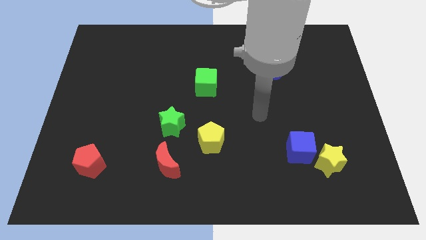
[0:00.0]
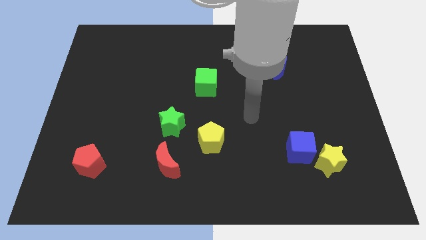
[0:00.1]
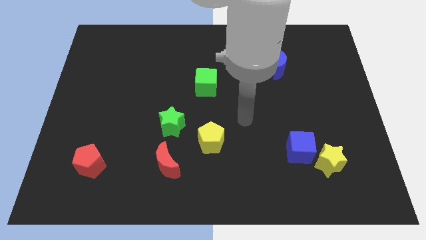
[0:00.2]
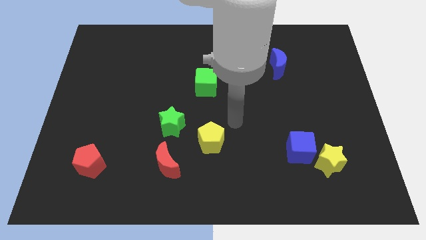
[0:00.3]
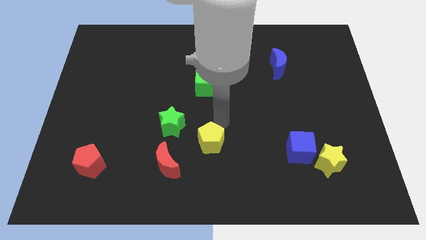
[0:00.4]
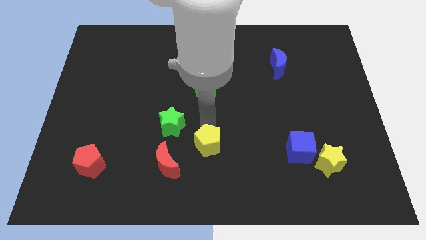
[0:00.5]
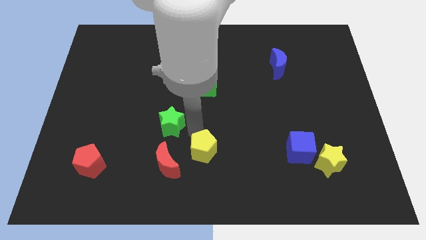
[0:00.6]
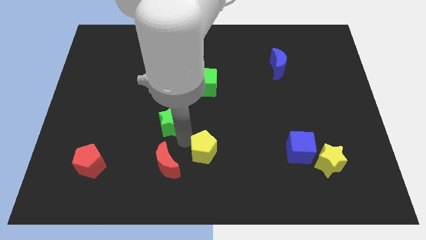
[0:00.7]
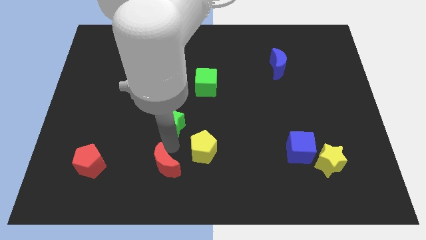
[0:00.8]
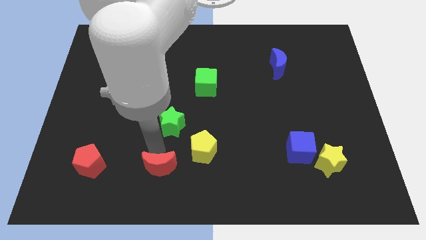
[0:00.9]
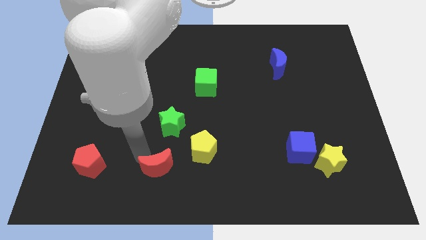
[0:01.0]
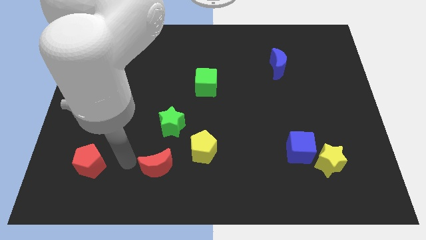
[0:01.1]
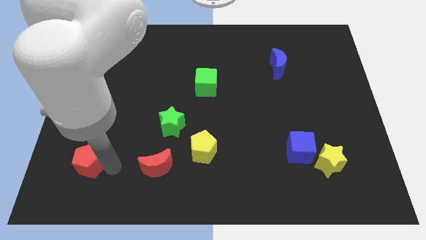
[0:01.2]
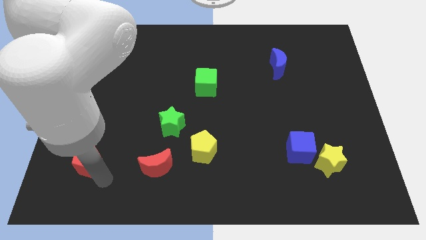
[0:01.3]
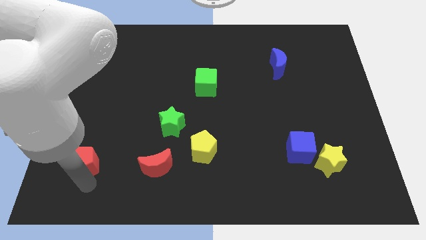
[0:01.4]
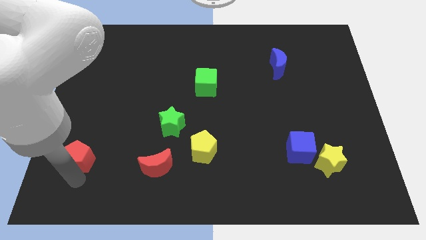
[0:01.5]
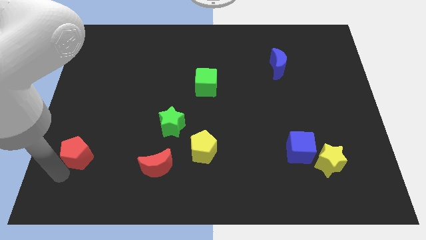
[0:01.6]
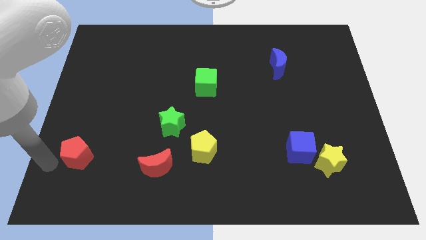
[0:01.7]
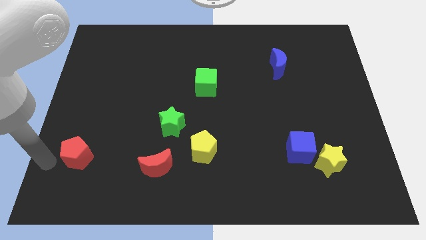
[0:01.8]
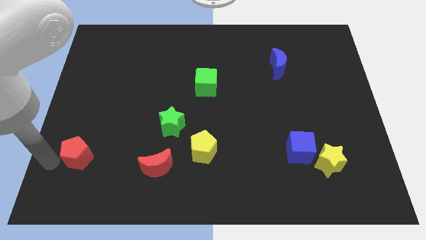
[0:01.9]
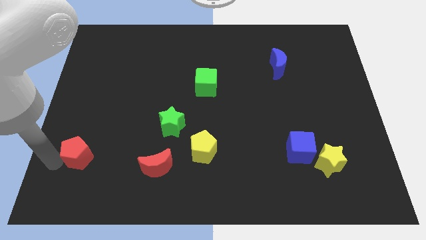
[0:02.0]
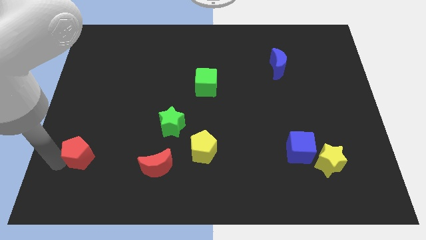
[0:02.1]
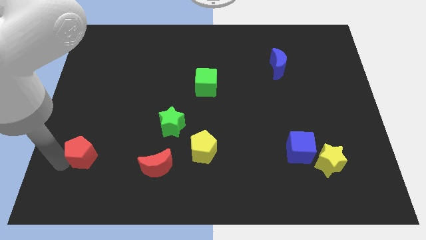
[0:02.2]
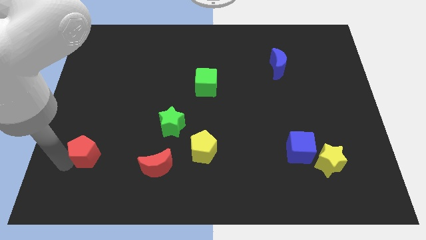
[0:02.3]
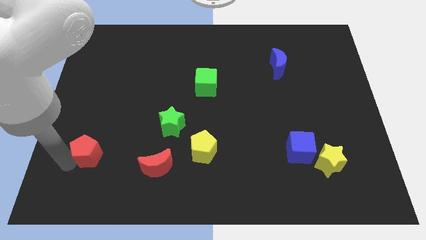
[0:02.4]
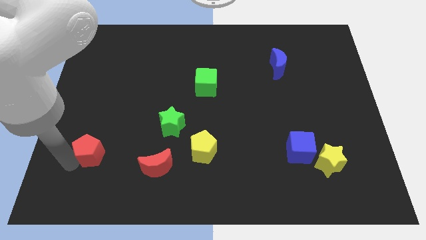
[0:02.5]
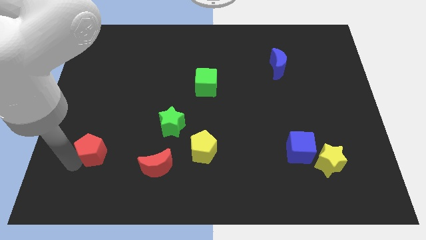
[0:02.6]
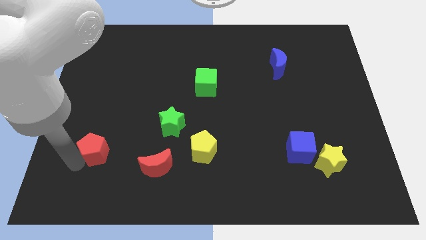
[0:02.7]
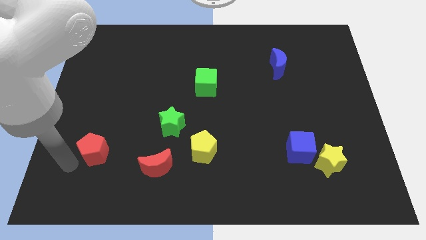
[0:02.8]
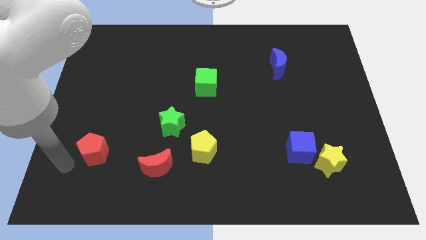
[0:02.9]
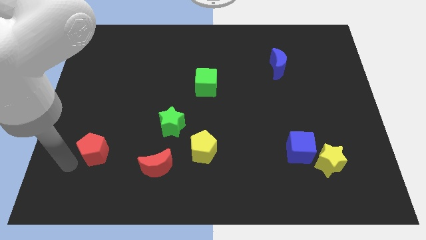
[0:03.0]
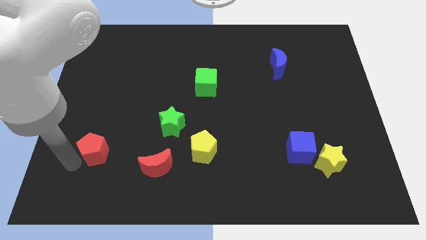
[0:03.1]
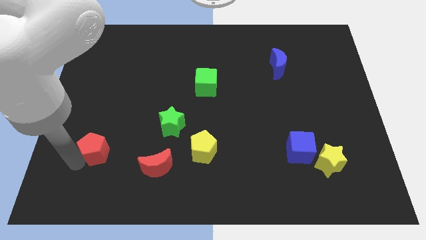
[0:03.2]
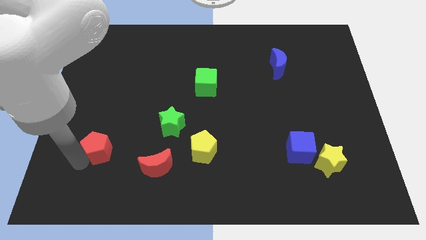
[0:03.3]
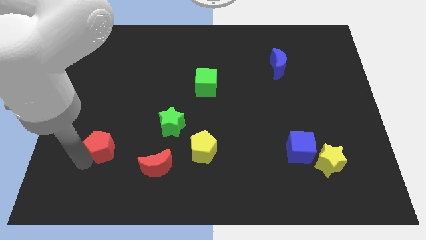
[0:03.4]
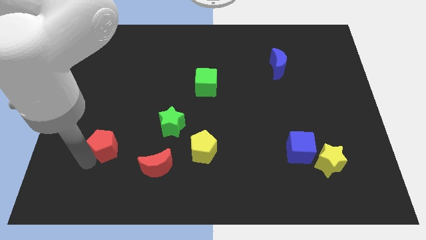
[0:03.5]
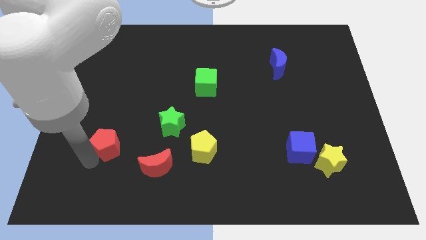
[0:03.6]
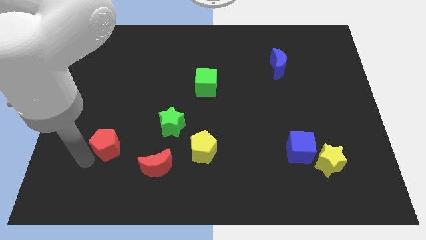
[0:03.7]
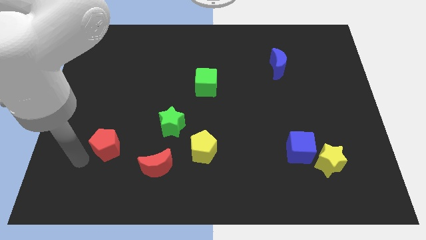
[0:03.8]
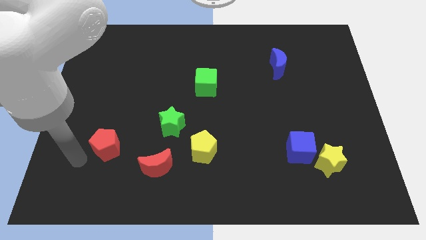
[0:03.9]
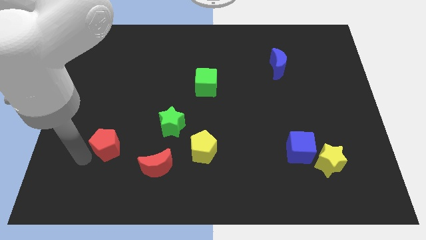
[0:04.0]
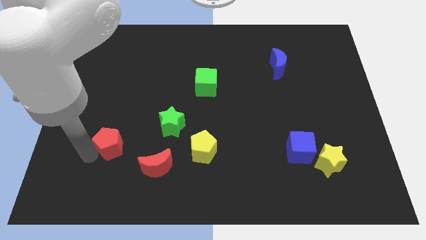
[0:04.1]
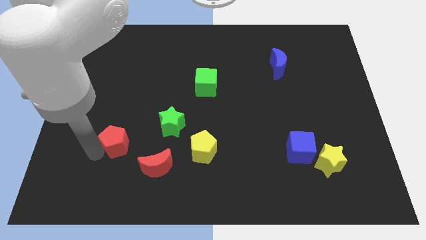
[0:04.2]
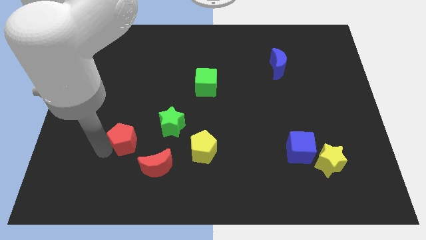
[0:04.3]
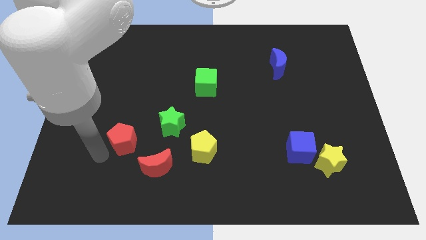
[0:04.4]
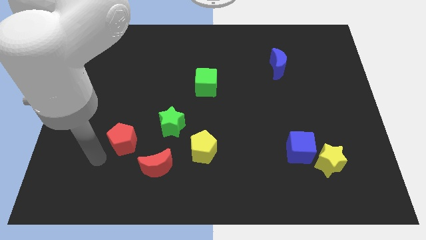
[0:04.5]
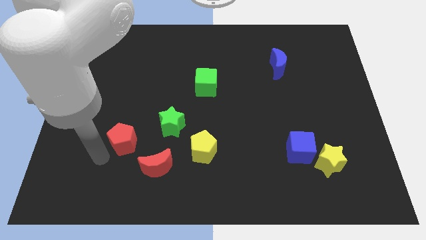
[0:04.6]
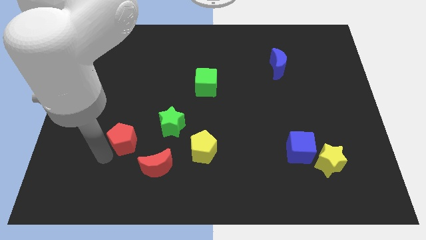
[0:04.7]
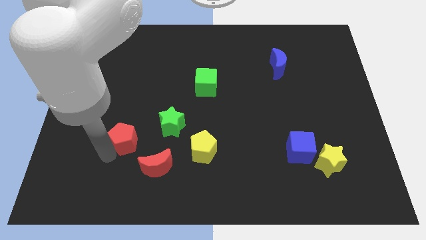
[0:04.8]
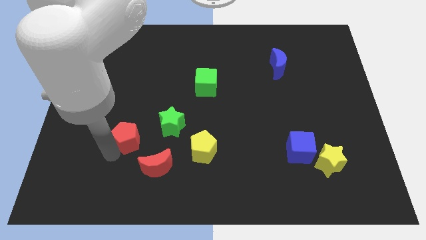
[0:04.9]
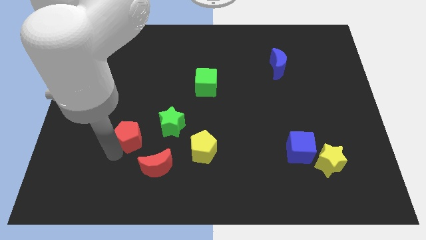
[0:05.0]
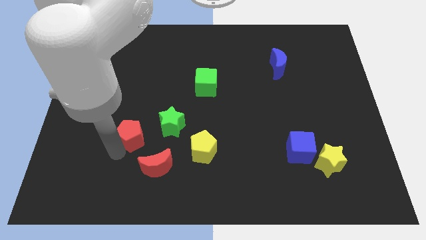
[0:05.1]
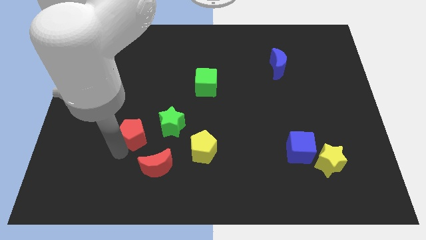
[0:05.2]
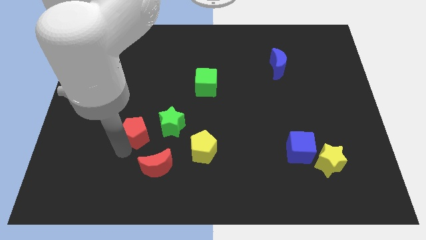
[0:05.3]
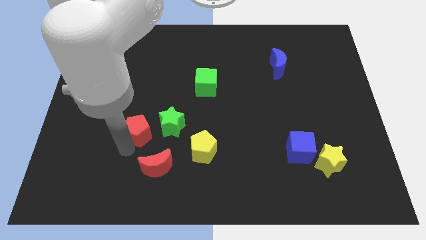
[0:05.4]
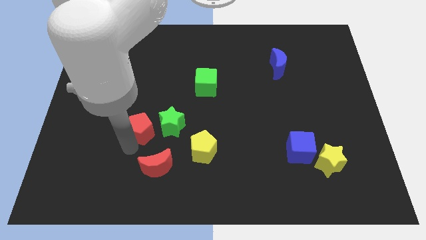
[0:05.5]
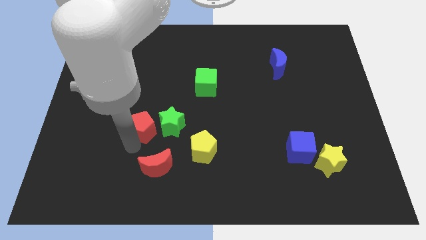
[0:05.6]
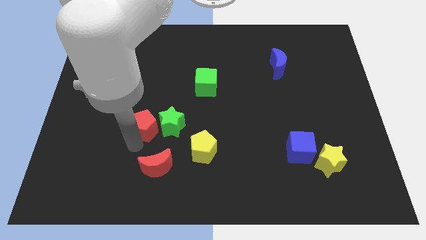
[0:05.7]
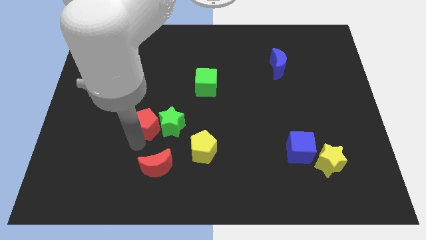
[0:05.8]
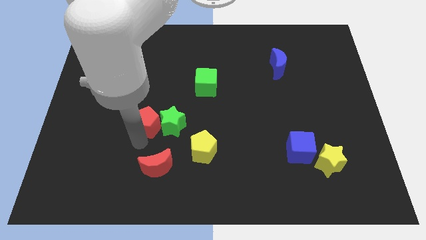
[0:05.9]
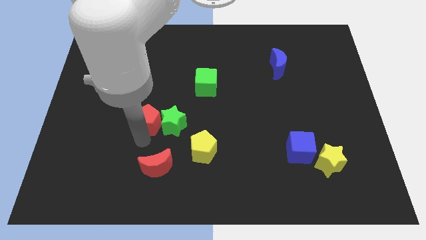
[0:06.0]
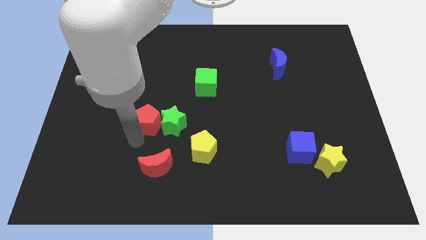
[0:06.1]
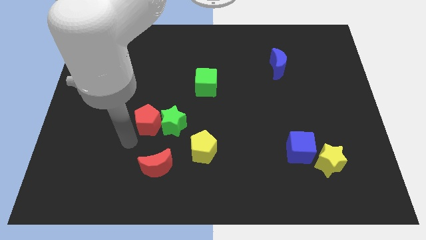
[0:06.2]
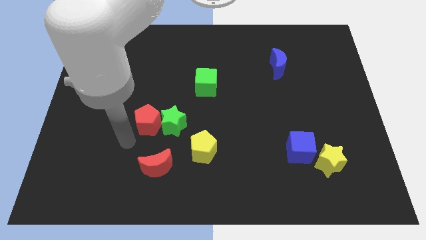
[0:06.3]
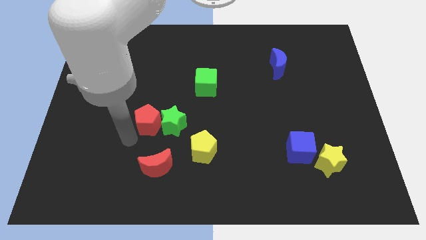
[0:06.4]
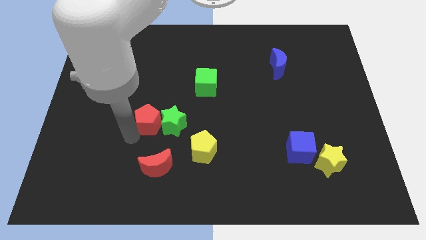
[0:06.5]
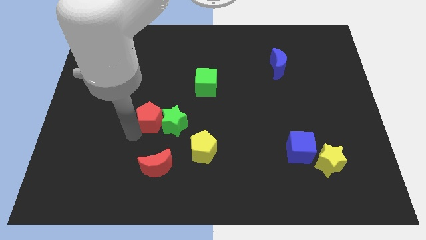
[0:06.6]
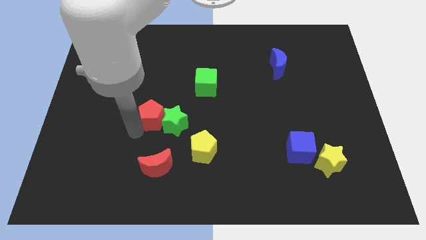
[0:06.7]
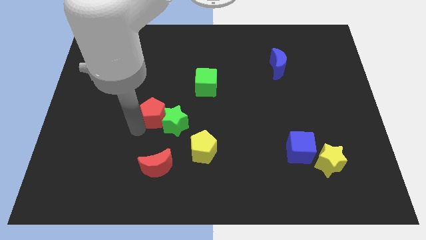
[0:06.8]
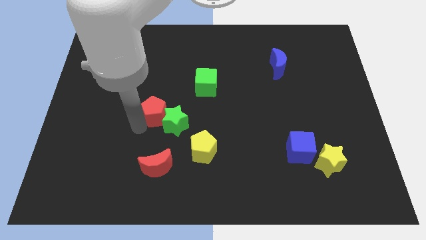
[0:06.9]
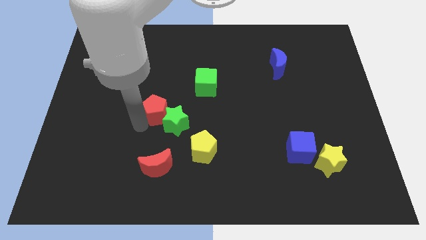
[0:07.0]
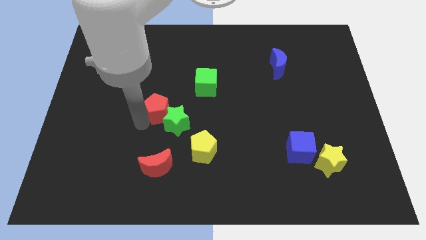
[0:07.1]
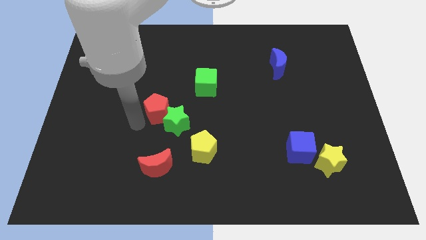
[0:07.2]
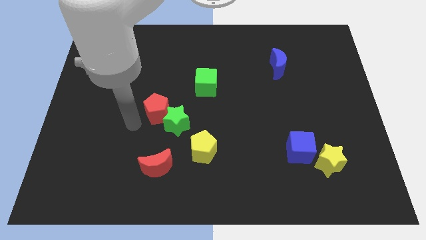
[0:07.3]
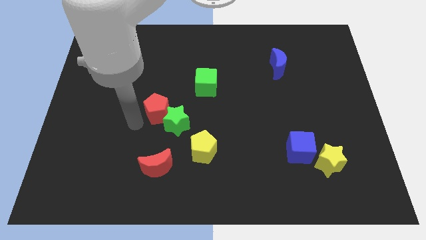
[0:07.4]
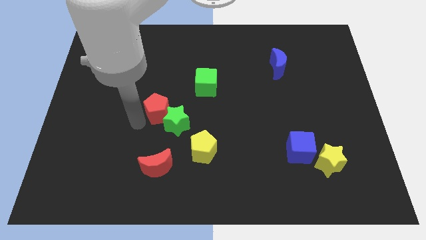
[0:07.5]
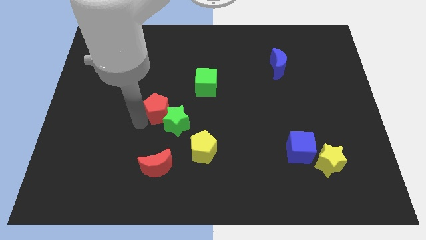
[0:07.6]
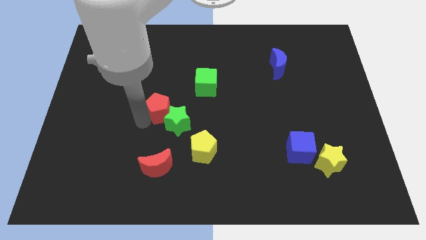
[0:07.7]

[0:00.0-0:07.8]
slide the red pentagon to the middle
